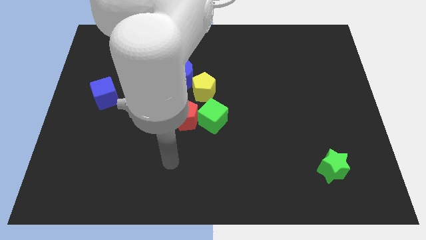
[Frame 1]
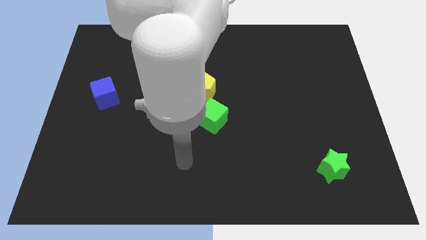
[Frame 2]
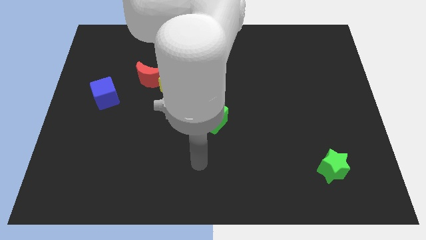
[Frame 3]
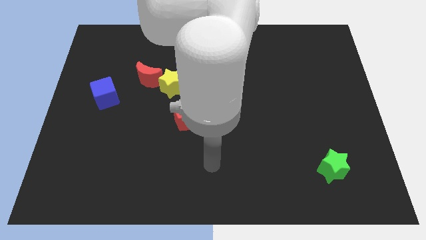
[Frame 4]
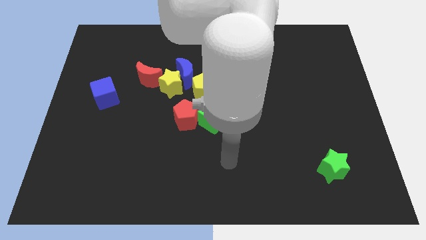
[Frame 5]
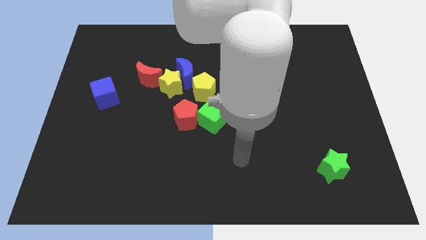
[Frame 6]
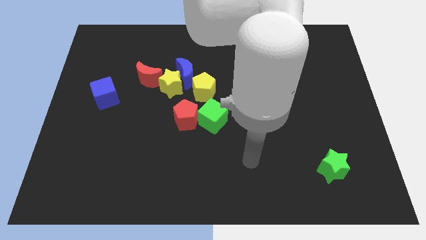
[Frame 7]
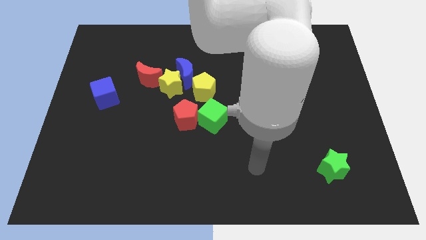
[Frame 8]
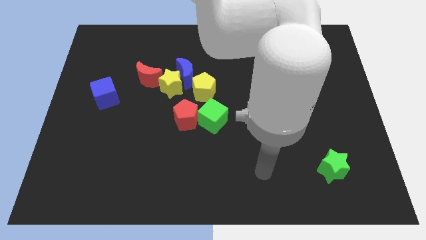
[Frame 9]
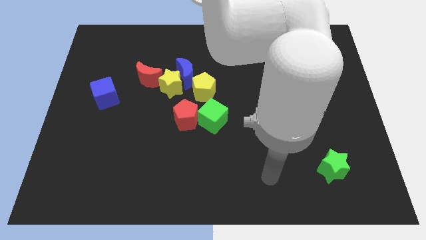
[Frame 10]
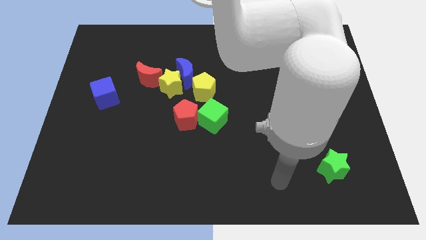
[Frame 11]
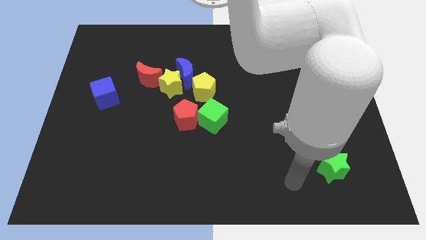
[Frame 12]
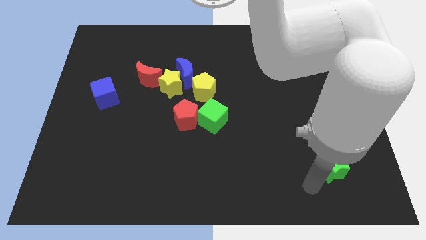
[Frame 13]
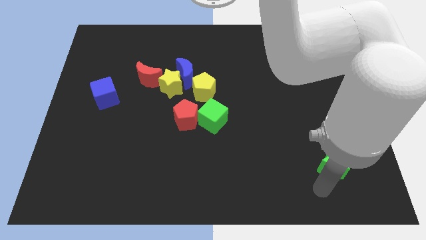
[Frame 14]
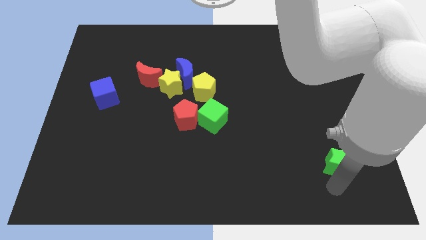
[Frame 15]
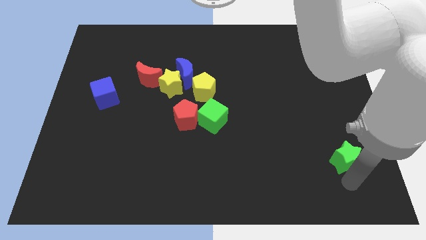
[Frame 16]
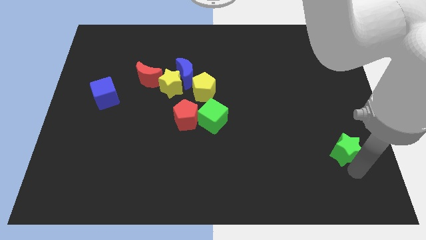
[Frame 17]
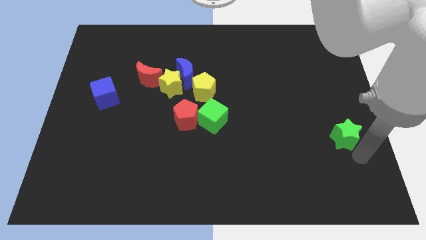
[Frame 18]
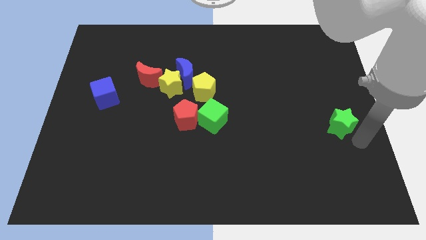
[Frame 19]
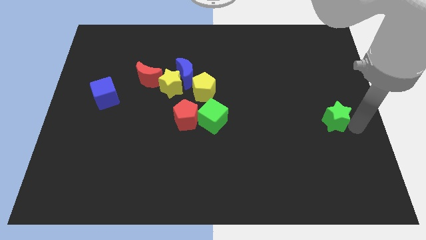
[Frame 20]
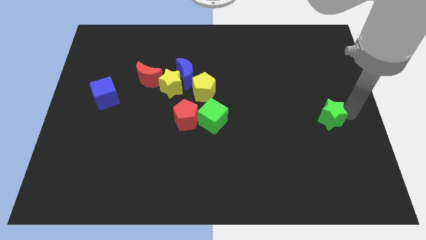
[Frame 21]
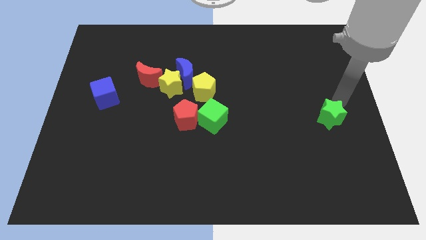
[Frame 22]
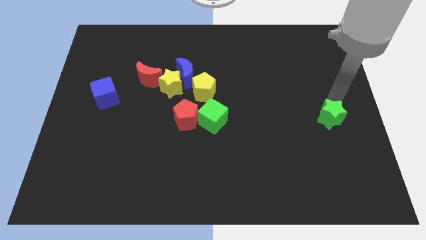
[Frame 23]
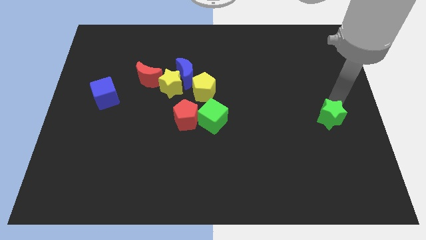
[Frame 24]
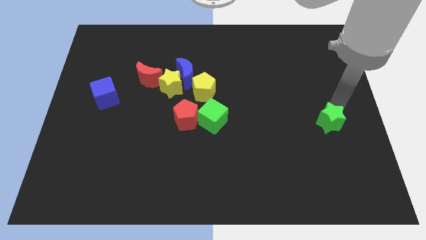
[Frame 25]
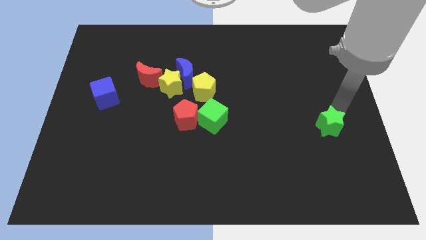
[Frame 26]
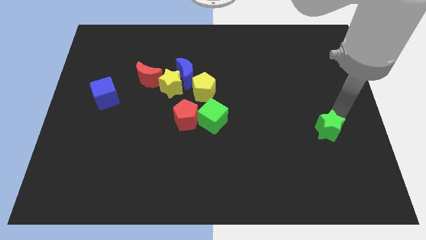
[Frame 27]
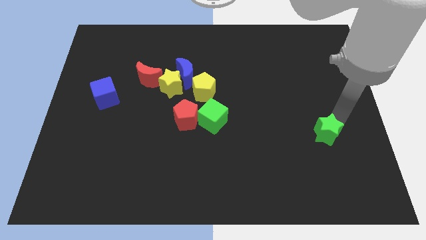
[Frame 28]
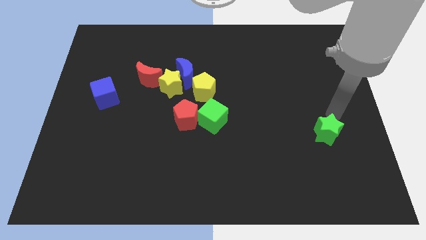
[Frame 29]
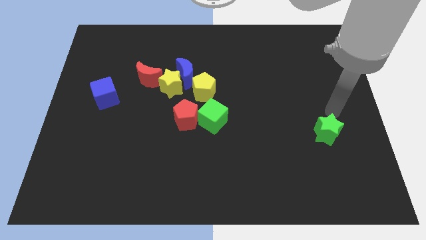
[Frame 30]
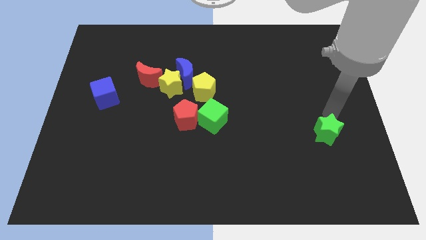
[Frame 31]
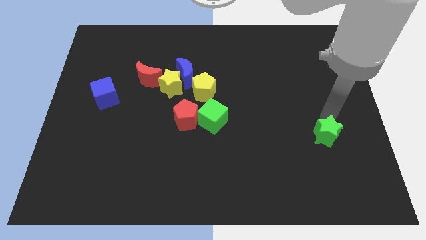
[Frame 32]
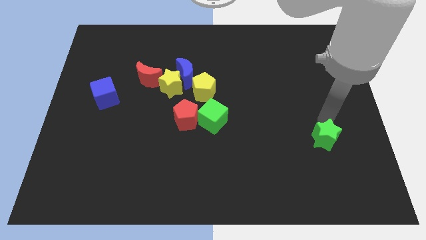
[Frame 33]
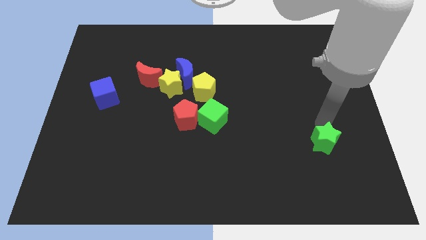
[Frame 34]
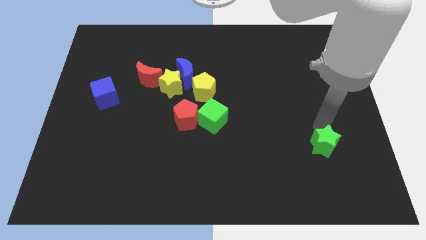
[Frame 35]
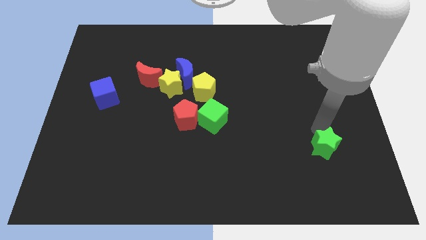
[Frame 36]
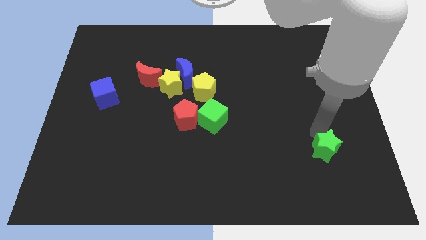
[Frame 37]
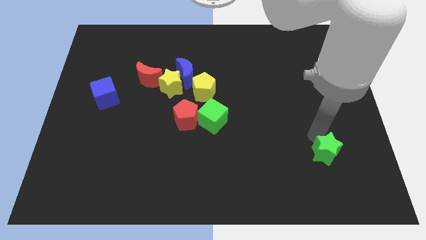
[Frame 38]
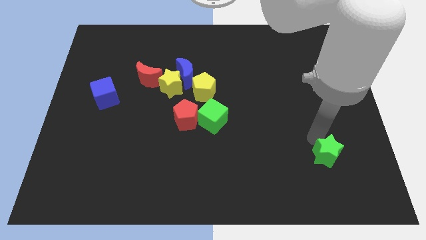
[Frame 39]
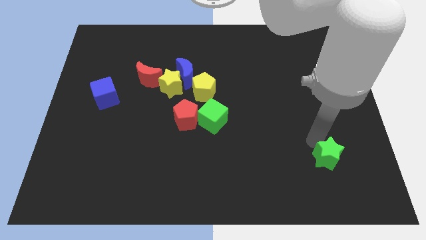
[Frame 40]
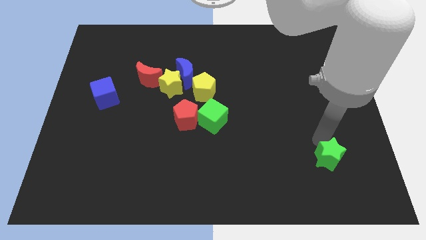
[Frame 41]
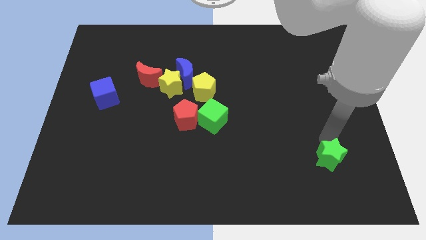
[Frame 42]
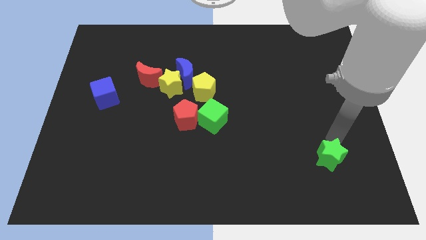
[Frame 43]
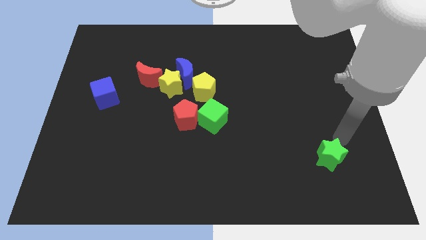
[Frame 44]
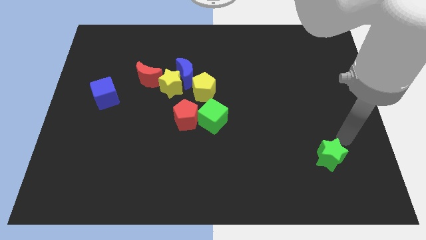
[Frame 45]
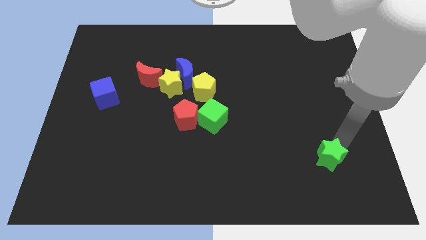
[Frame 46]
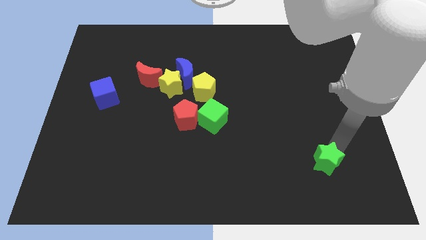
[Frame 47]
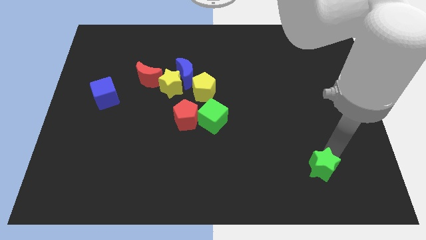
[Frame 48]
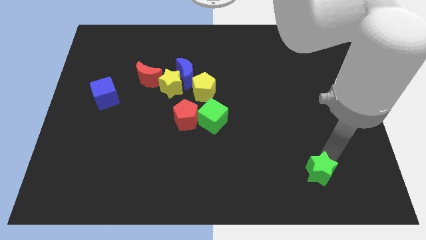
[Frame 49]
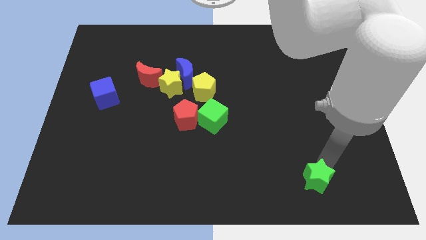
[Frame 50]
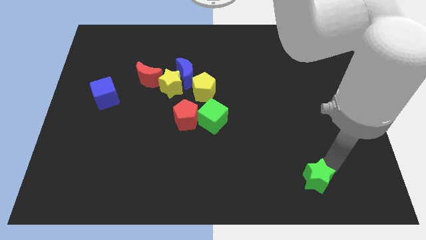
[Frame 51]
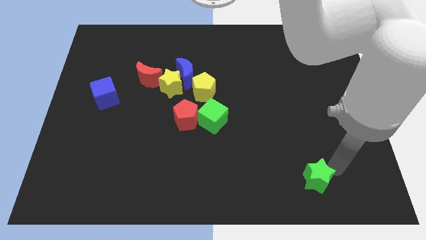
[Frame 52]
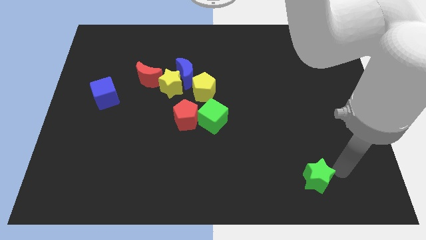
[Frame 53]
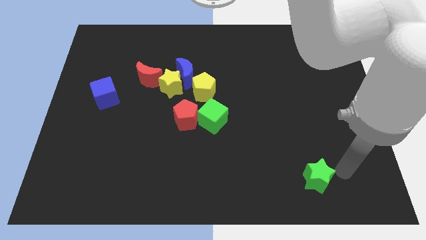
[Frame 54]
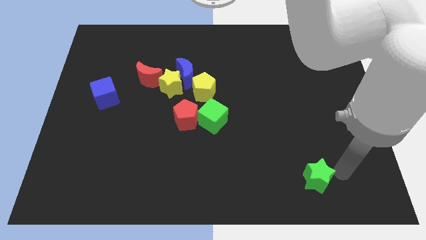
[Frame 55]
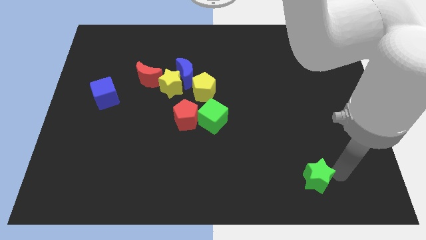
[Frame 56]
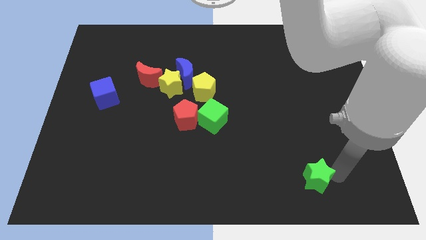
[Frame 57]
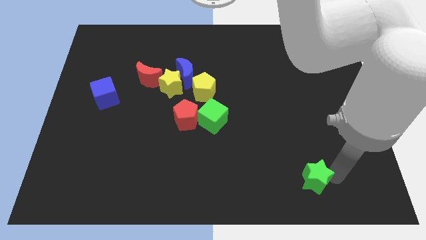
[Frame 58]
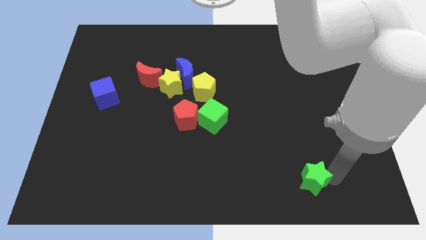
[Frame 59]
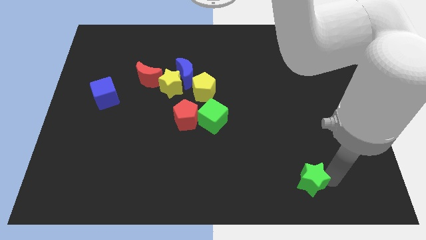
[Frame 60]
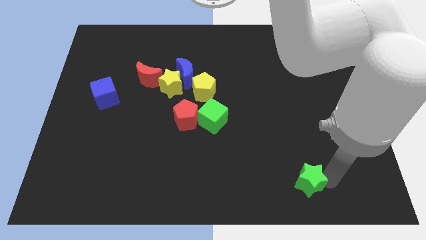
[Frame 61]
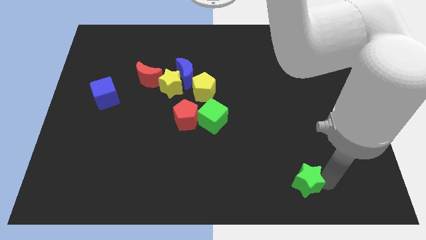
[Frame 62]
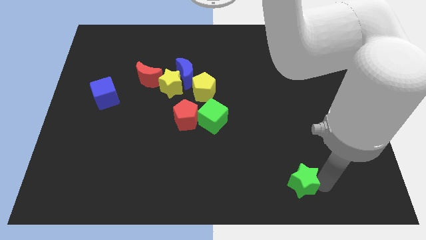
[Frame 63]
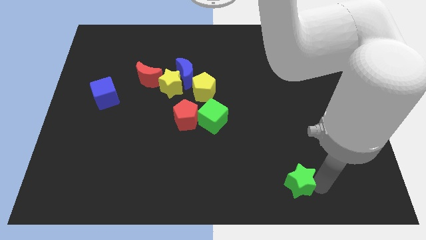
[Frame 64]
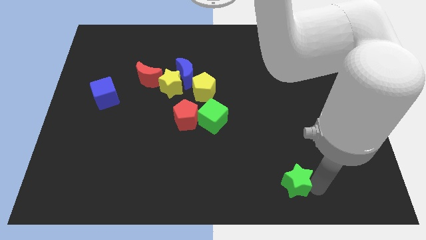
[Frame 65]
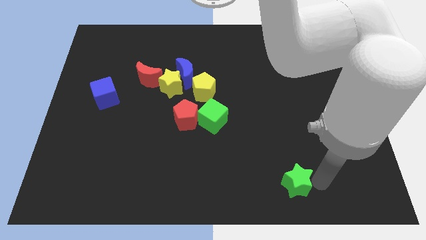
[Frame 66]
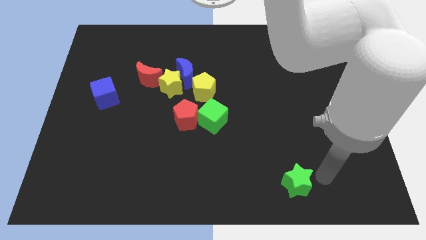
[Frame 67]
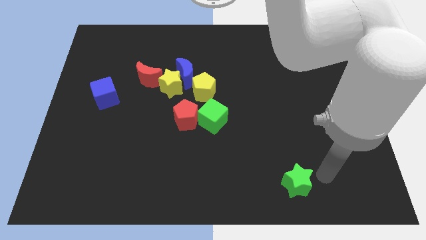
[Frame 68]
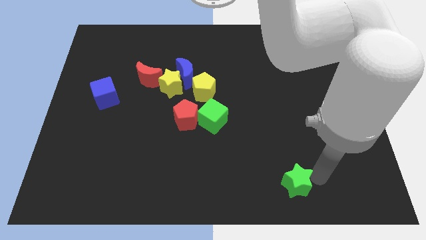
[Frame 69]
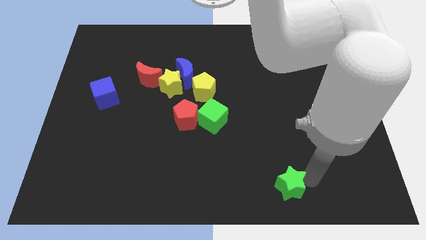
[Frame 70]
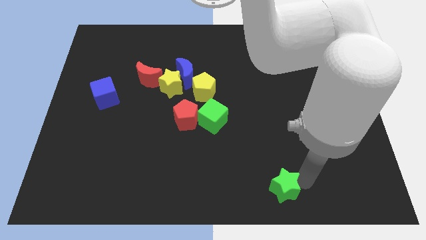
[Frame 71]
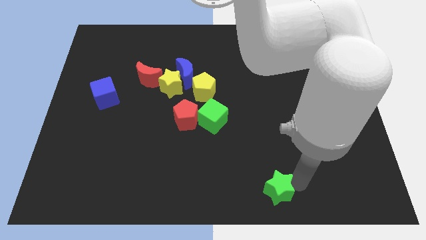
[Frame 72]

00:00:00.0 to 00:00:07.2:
slide the green star to the bottom side
